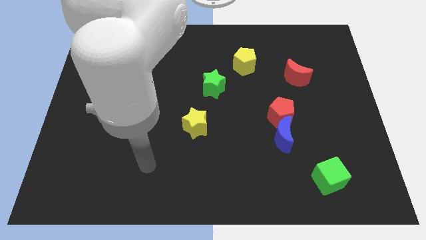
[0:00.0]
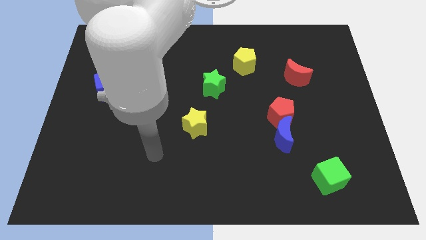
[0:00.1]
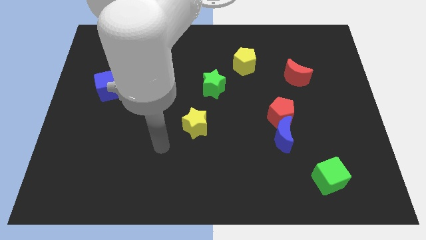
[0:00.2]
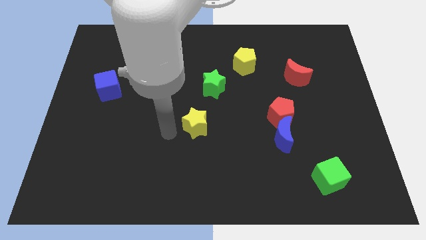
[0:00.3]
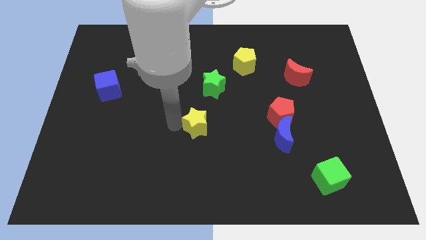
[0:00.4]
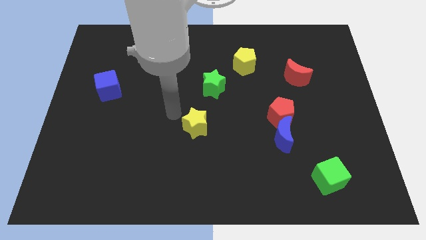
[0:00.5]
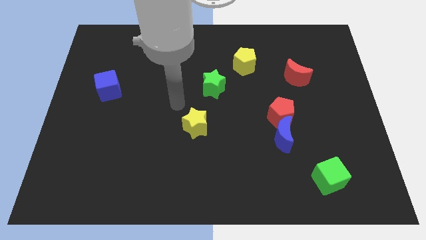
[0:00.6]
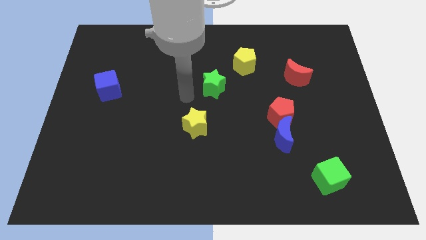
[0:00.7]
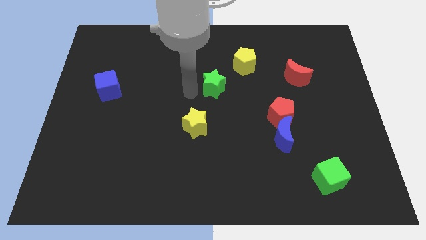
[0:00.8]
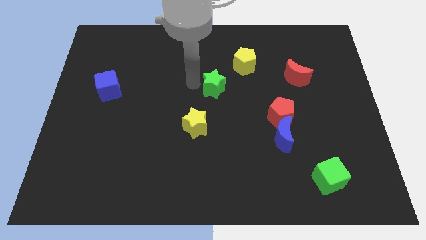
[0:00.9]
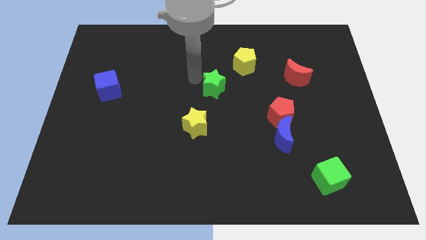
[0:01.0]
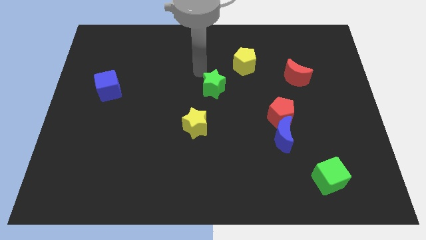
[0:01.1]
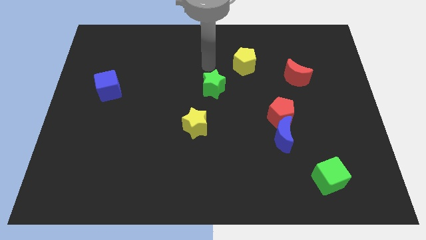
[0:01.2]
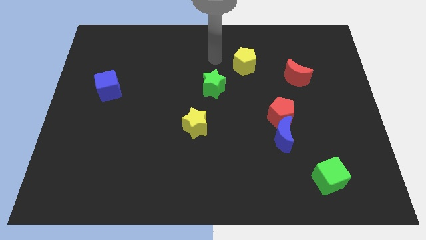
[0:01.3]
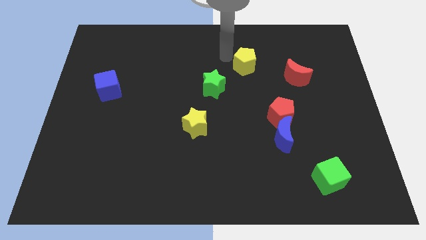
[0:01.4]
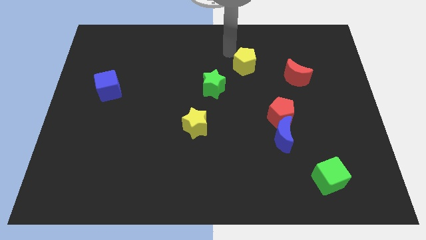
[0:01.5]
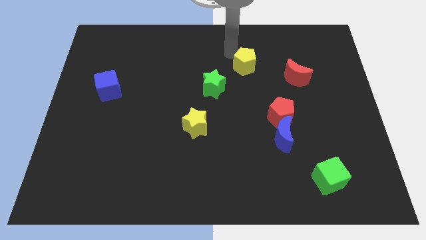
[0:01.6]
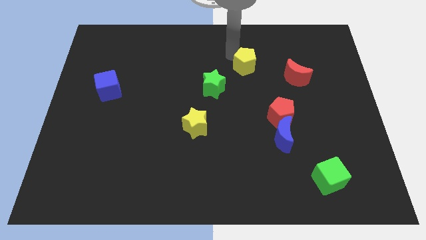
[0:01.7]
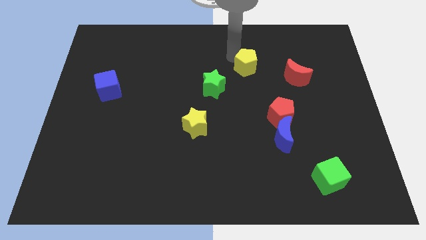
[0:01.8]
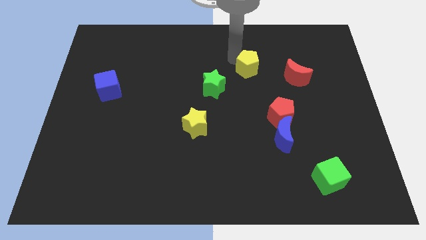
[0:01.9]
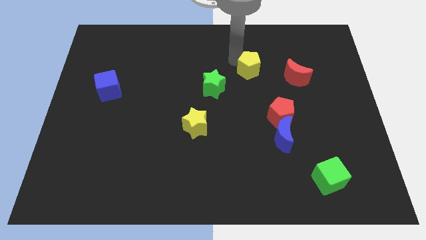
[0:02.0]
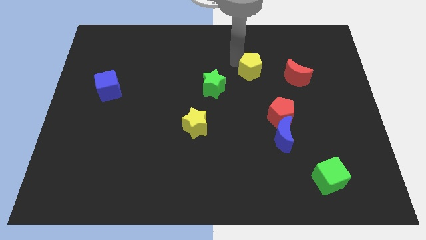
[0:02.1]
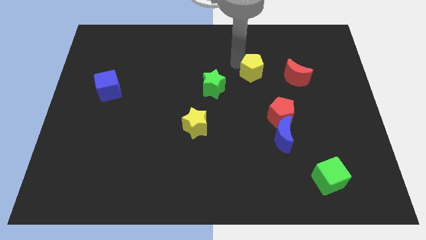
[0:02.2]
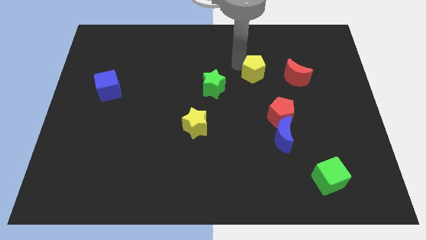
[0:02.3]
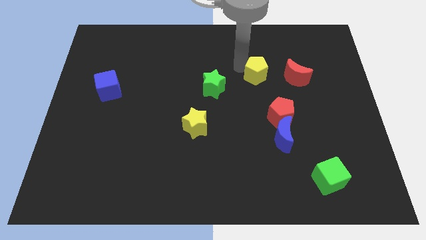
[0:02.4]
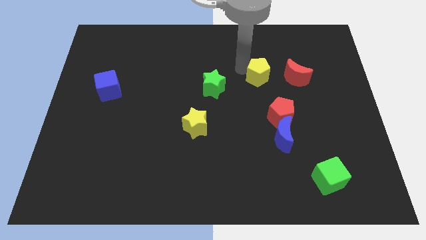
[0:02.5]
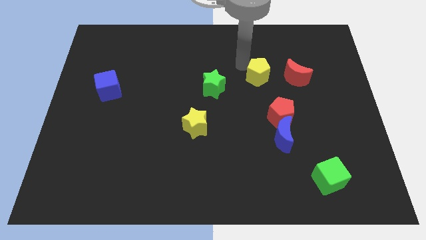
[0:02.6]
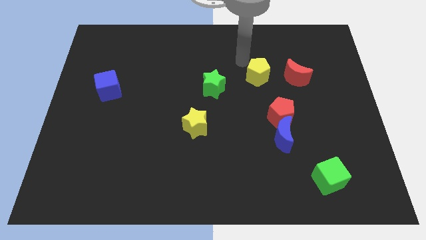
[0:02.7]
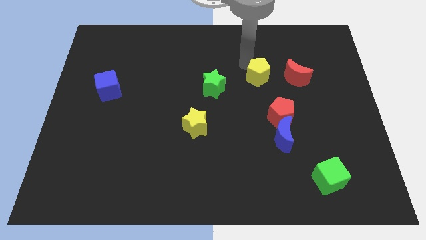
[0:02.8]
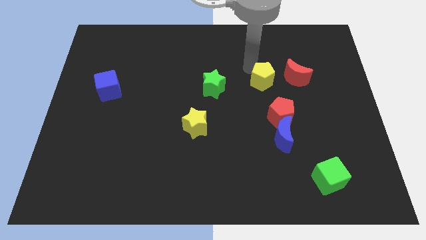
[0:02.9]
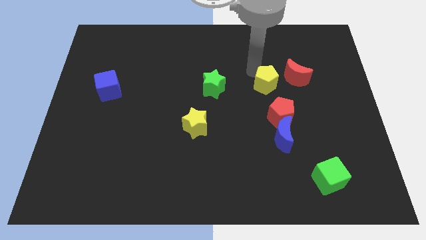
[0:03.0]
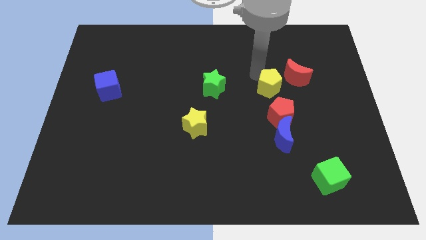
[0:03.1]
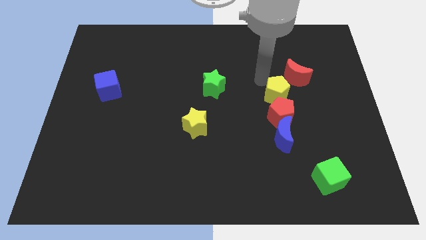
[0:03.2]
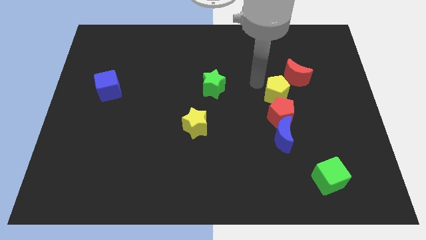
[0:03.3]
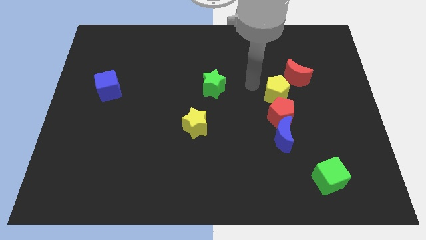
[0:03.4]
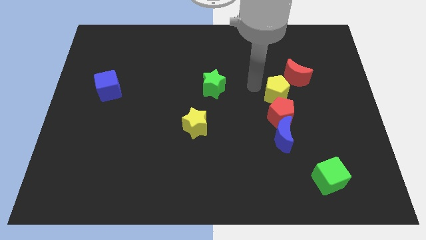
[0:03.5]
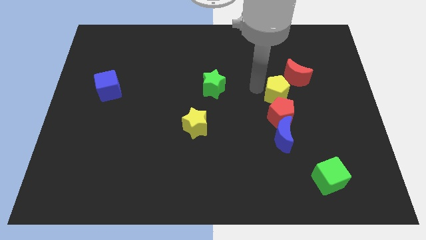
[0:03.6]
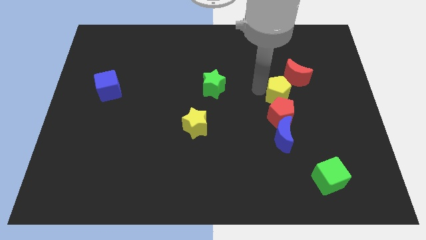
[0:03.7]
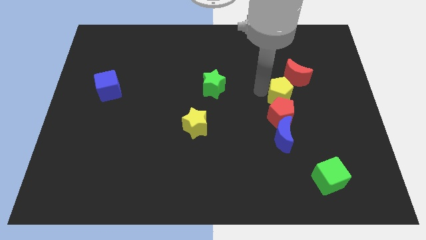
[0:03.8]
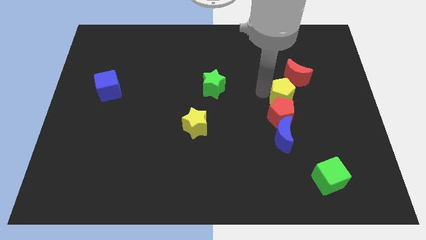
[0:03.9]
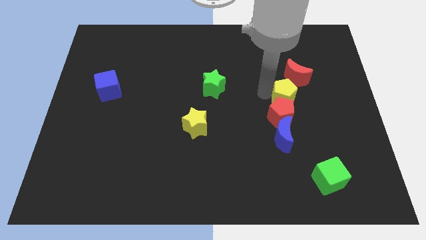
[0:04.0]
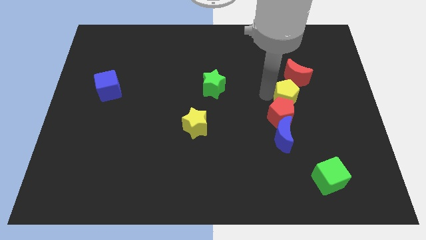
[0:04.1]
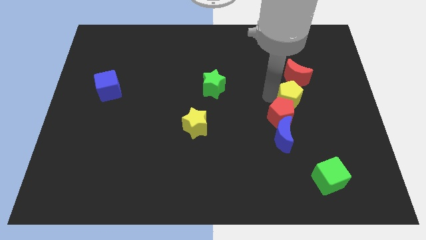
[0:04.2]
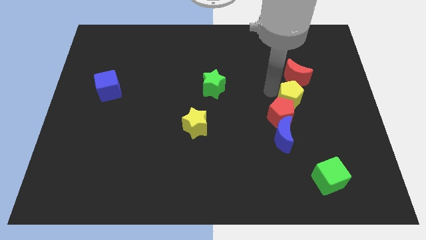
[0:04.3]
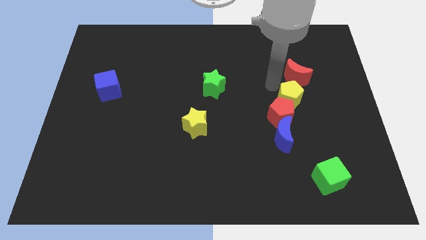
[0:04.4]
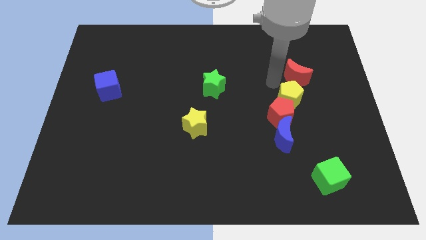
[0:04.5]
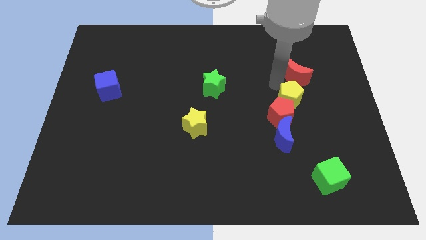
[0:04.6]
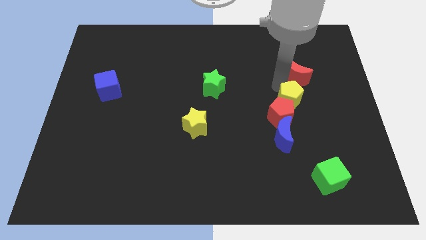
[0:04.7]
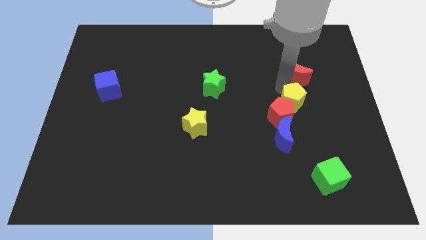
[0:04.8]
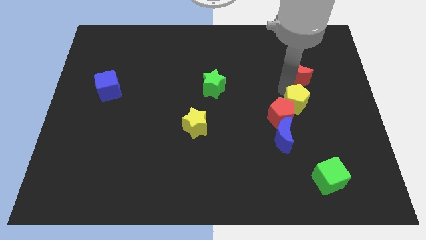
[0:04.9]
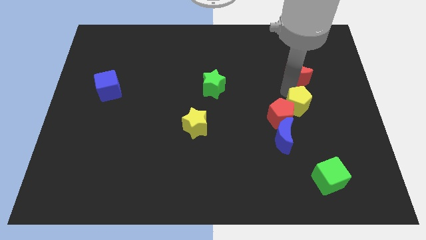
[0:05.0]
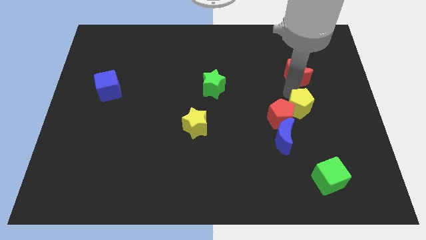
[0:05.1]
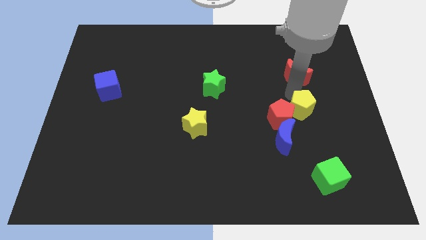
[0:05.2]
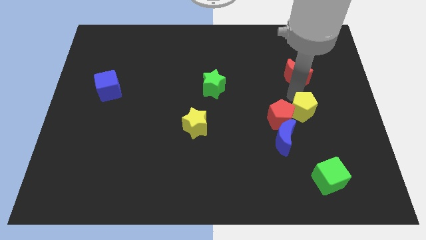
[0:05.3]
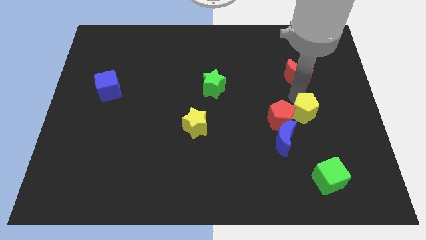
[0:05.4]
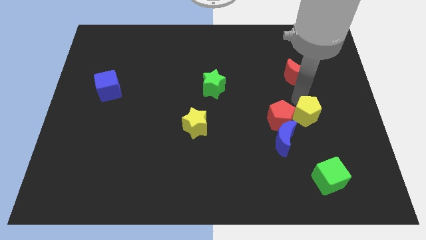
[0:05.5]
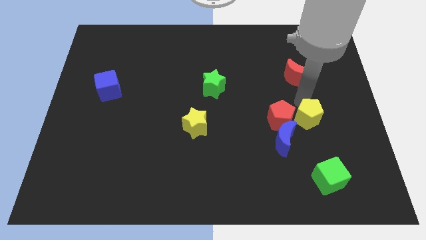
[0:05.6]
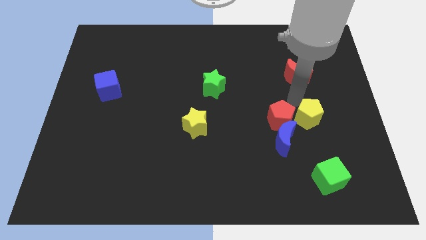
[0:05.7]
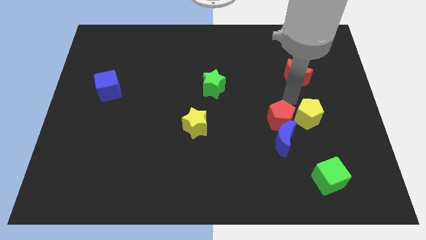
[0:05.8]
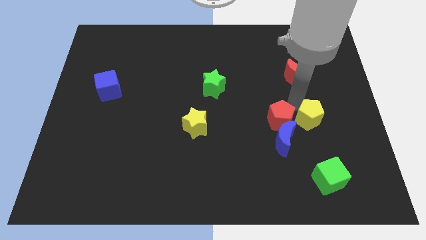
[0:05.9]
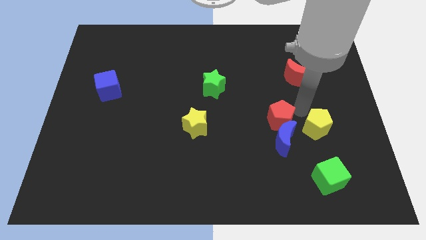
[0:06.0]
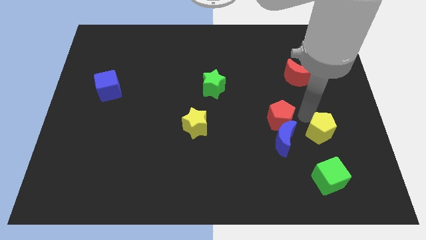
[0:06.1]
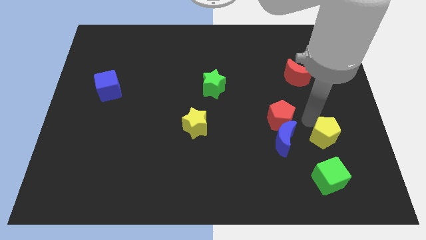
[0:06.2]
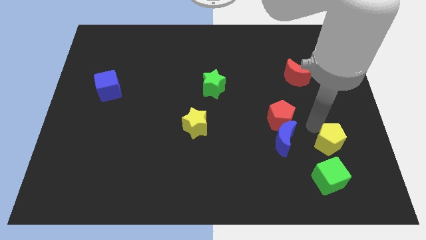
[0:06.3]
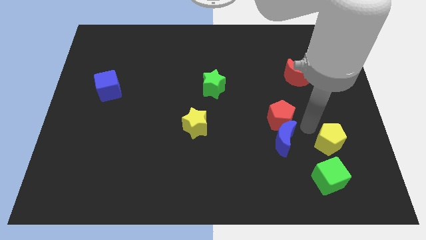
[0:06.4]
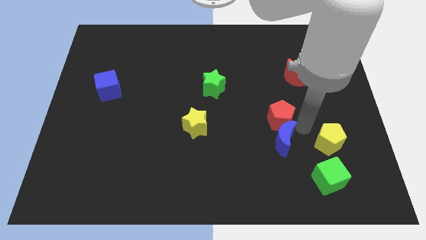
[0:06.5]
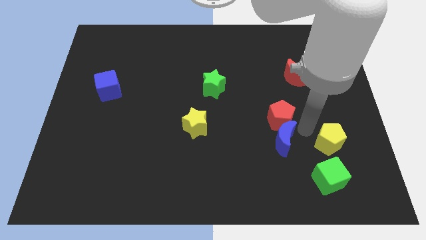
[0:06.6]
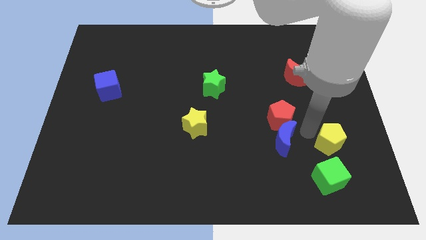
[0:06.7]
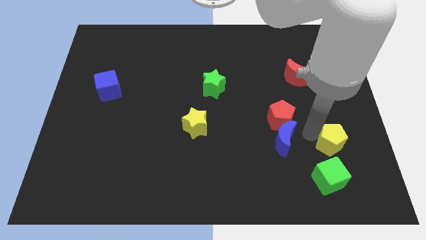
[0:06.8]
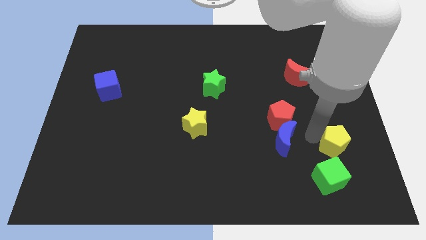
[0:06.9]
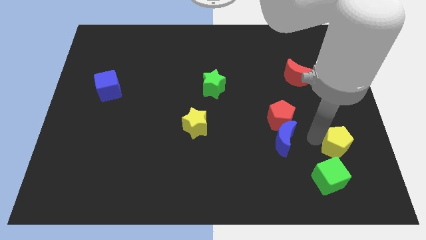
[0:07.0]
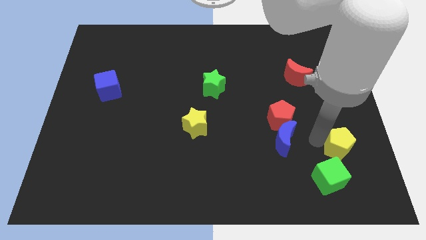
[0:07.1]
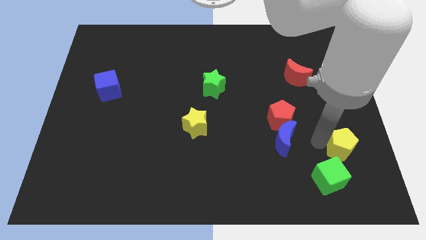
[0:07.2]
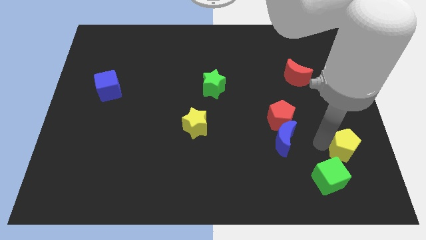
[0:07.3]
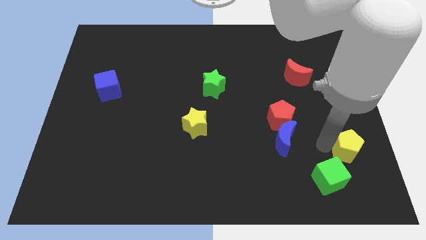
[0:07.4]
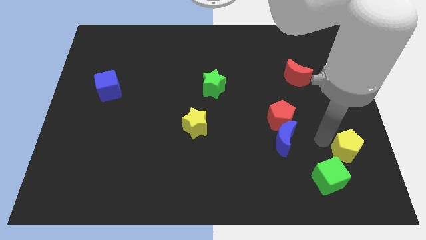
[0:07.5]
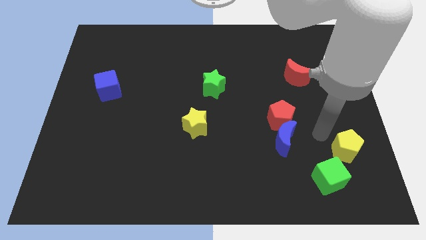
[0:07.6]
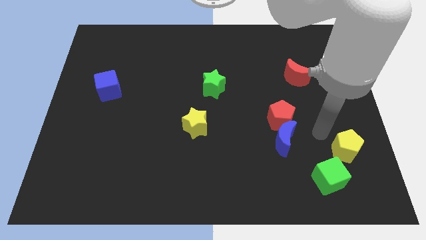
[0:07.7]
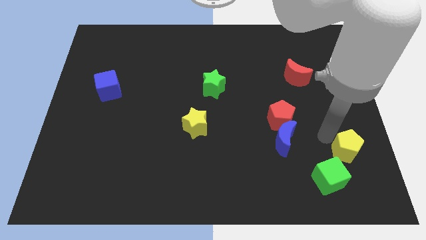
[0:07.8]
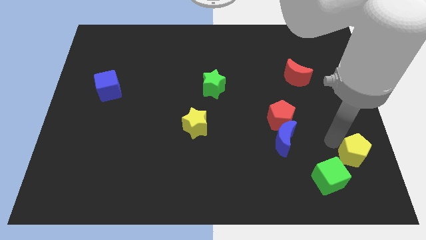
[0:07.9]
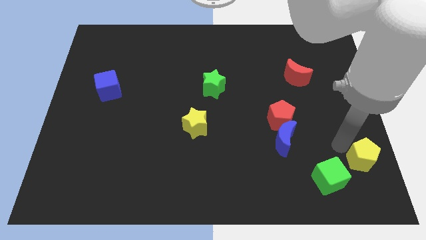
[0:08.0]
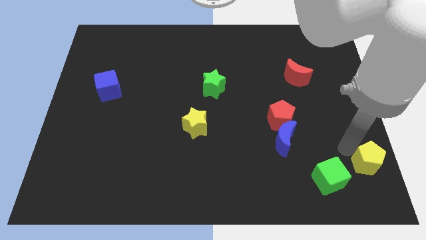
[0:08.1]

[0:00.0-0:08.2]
push the yellow pentagon to the lower right corner
